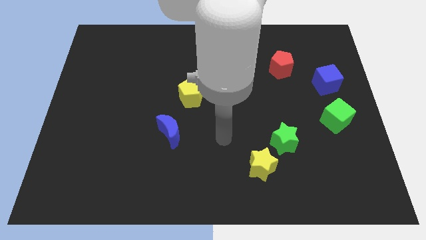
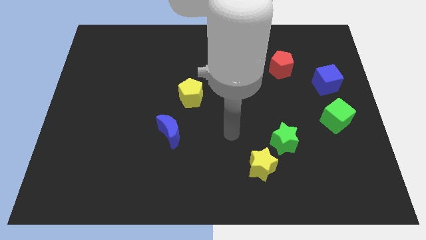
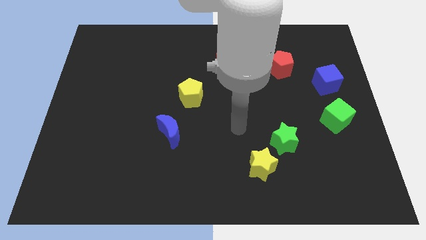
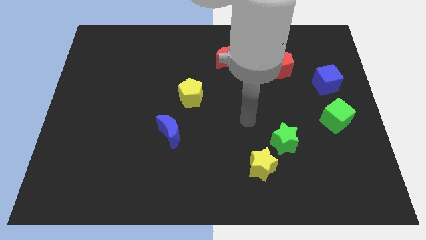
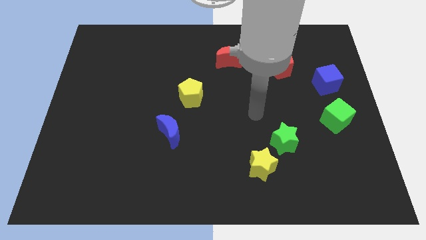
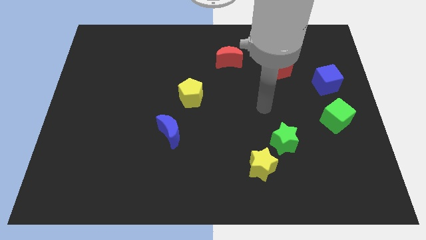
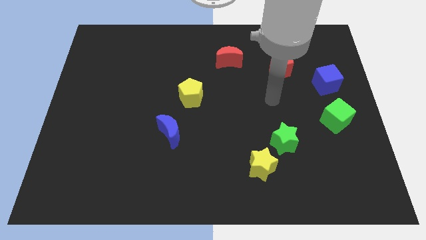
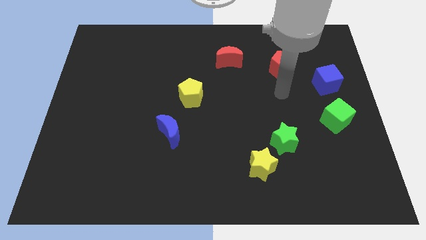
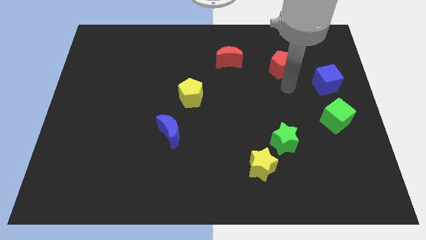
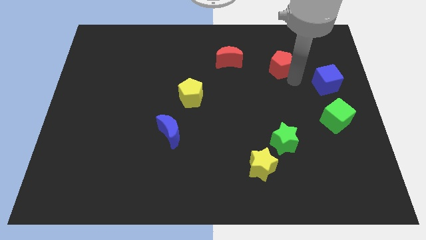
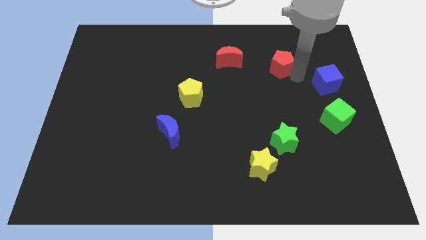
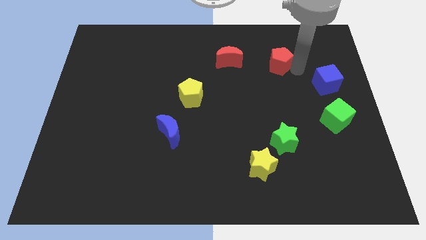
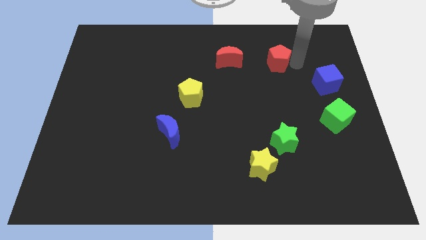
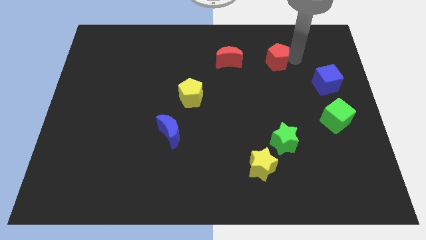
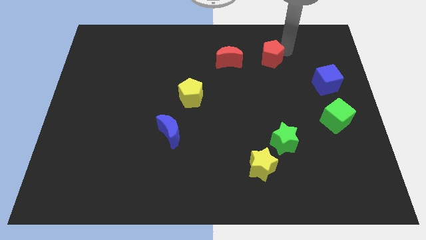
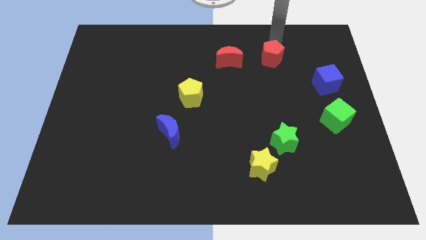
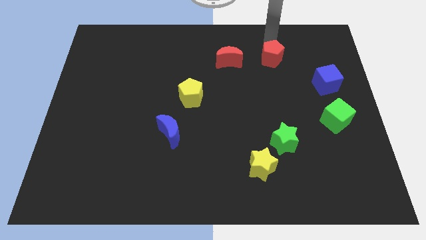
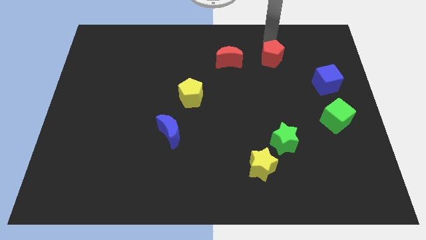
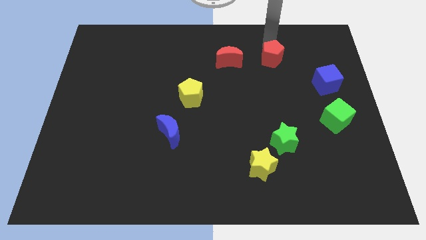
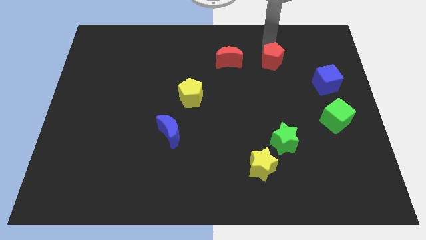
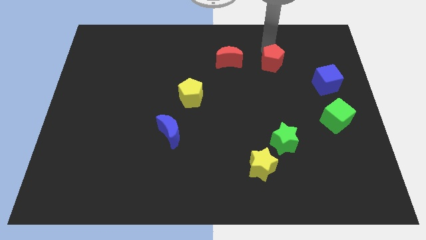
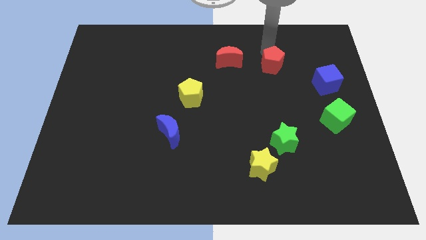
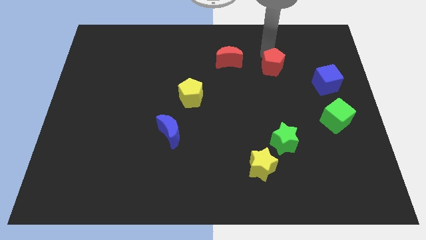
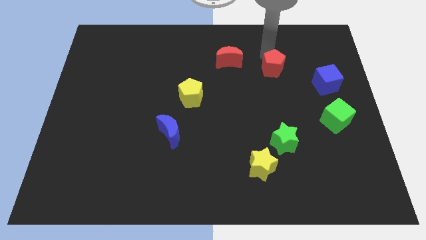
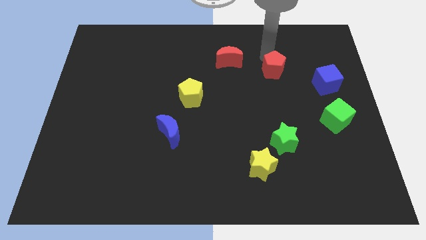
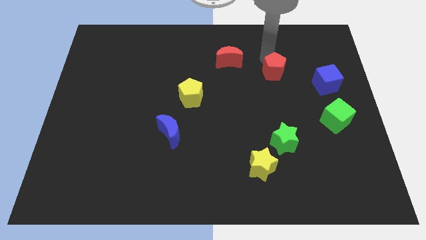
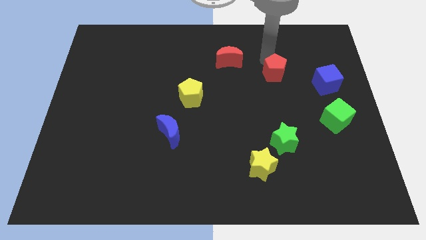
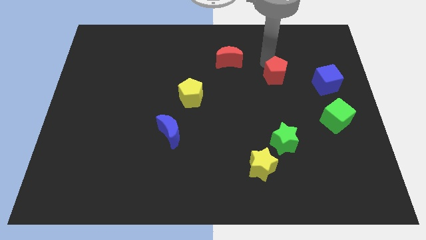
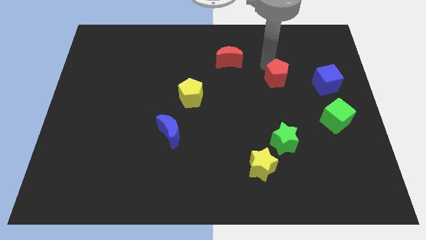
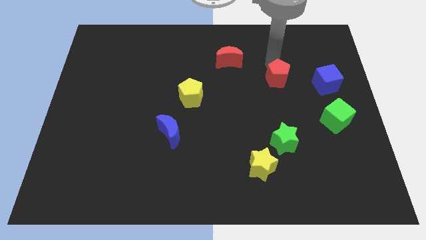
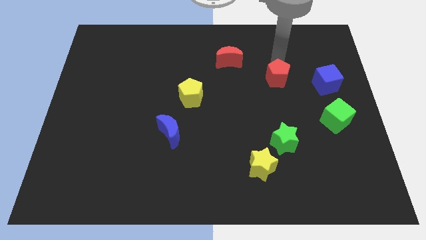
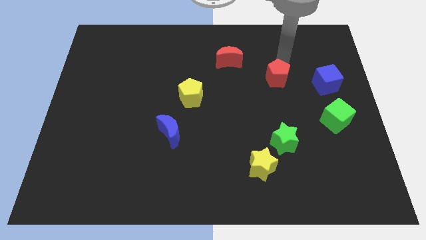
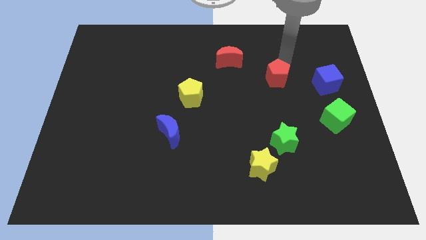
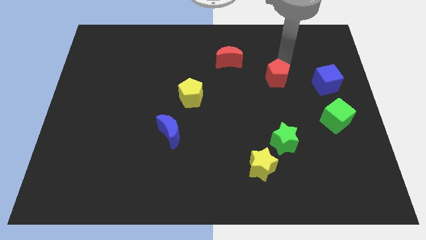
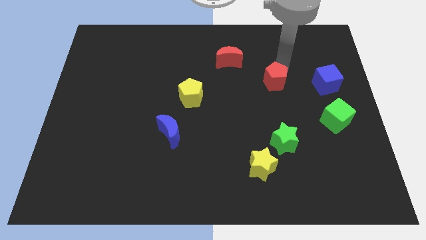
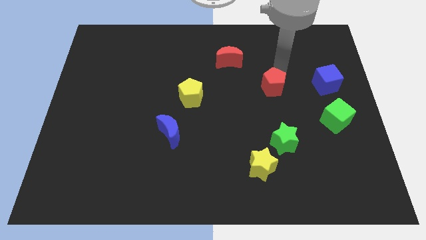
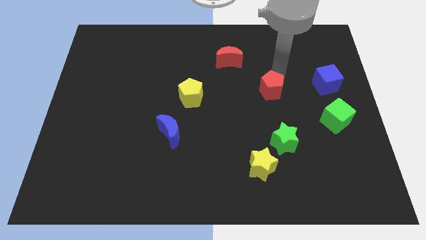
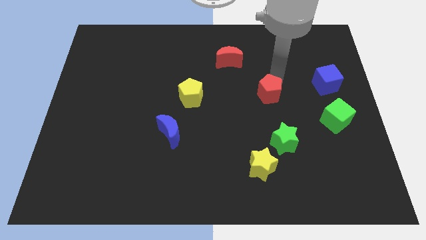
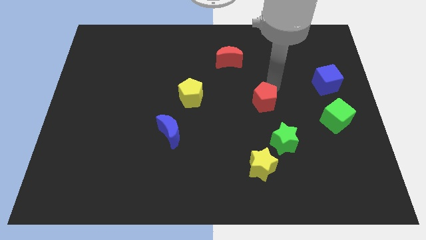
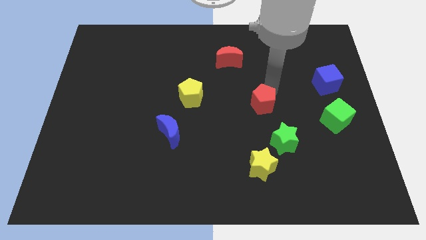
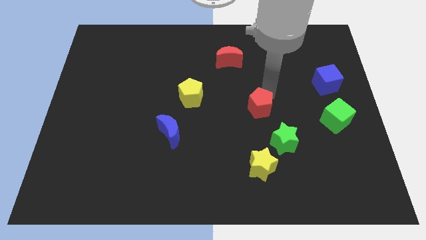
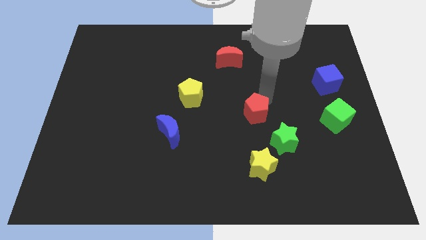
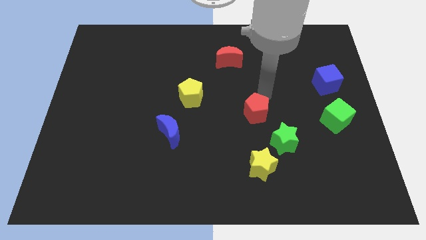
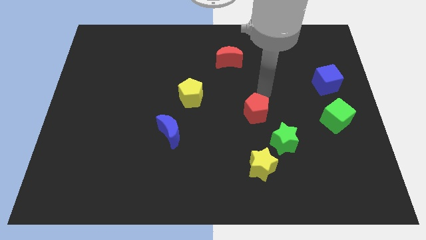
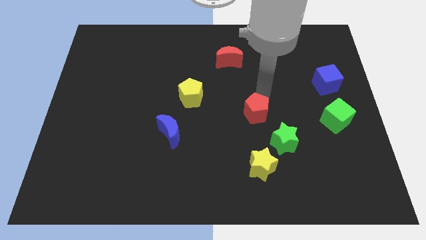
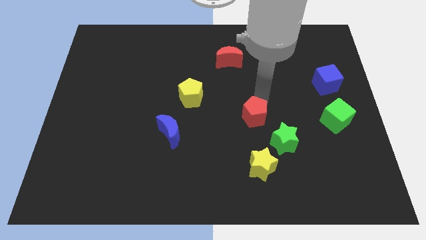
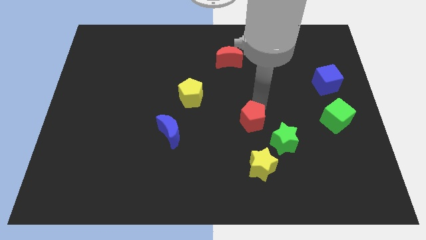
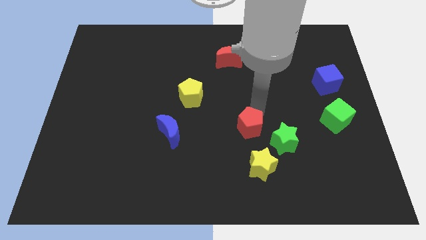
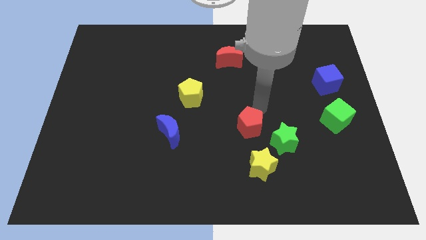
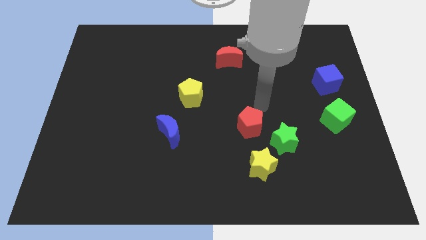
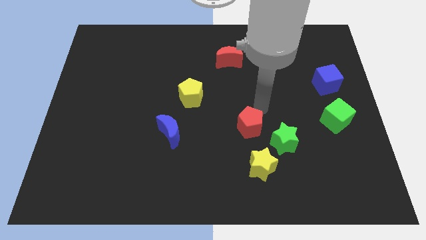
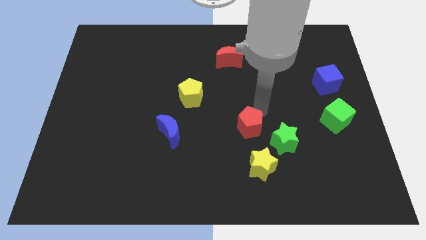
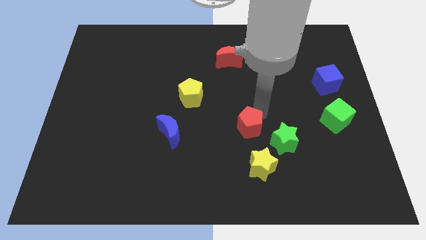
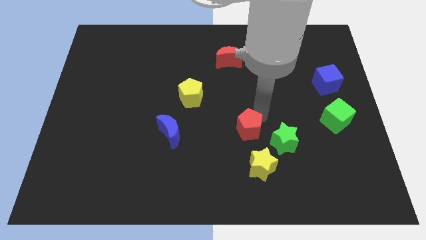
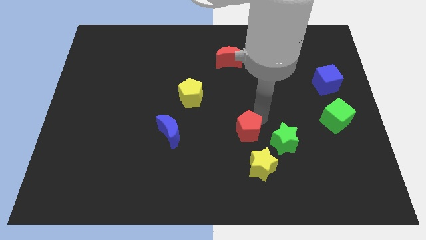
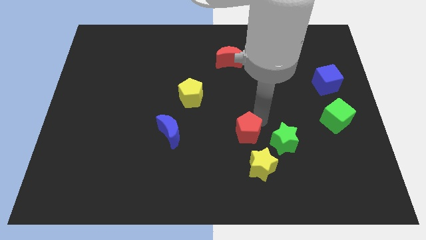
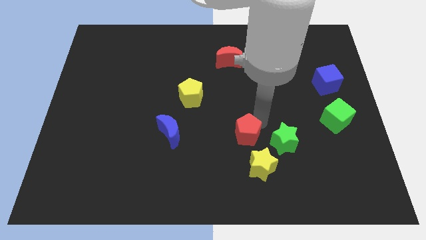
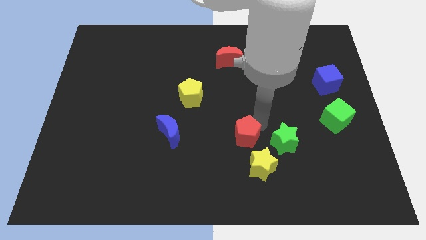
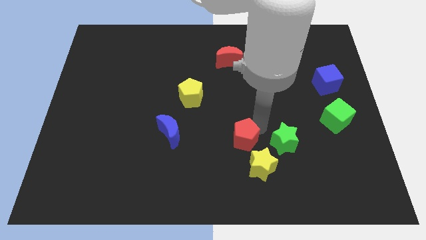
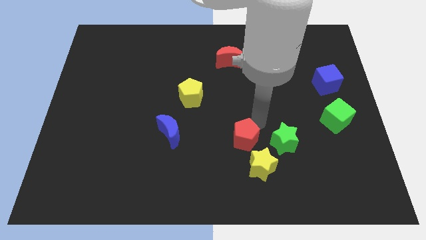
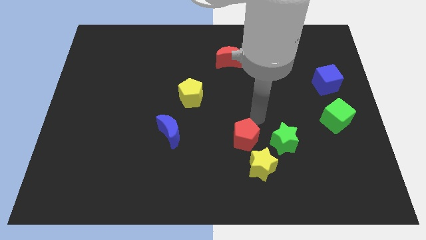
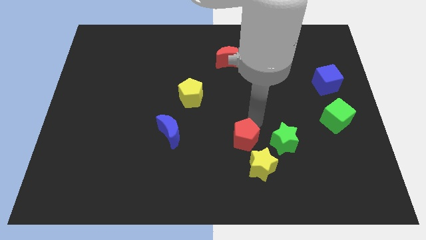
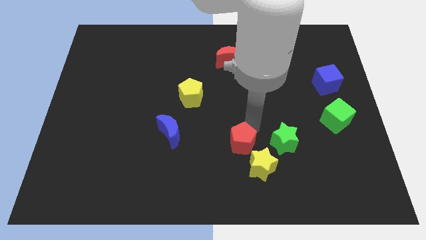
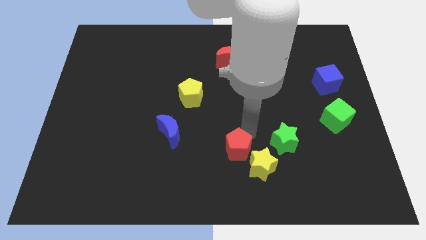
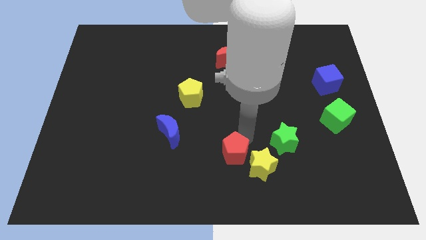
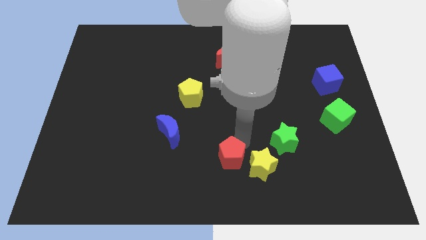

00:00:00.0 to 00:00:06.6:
move the red pentagon to the bottom side

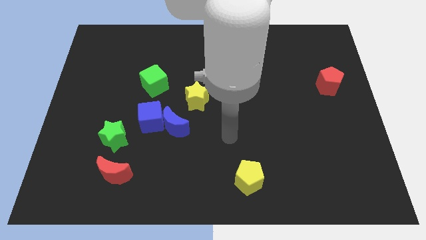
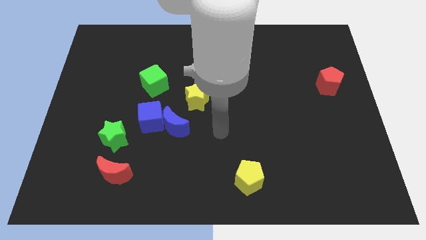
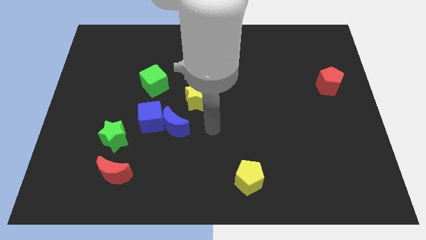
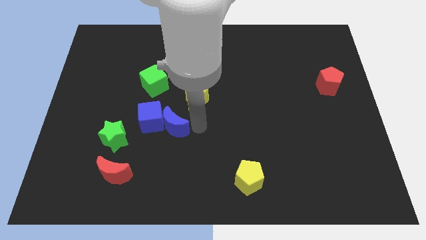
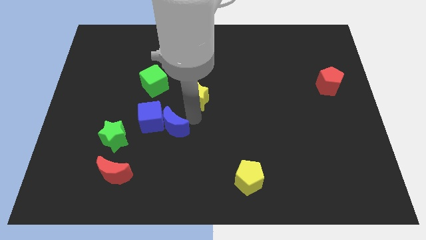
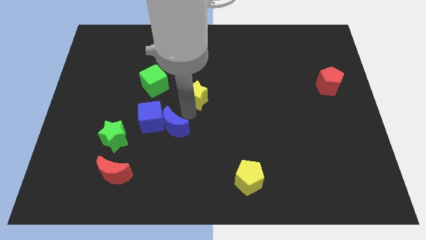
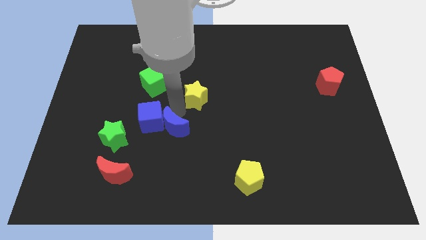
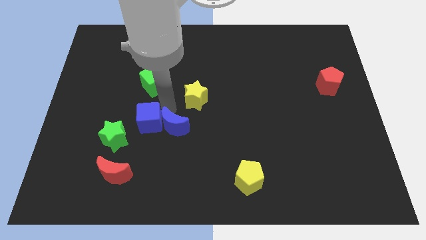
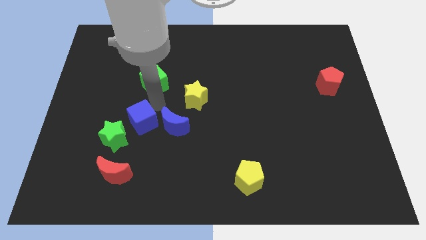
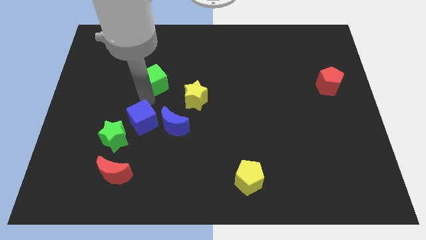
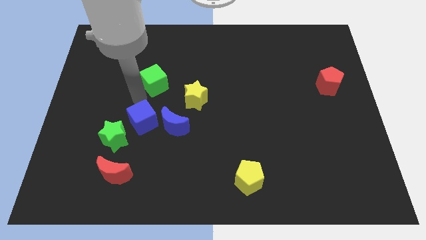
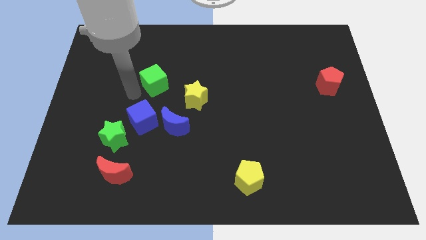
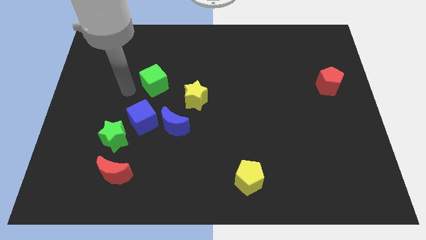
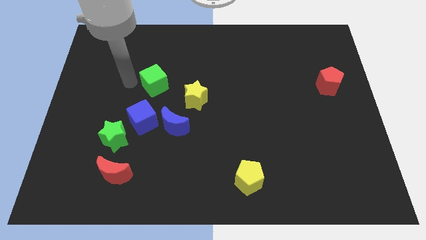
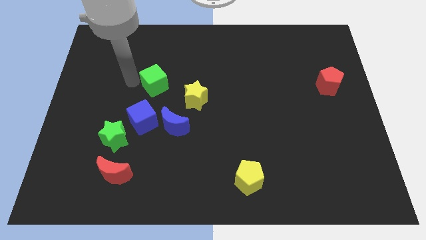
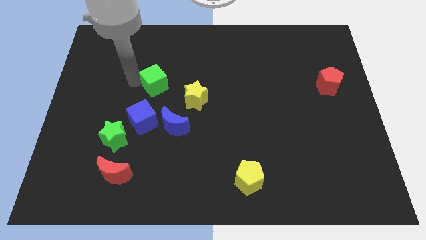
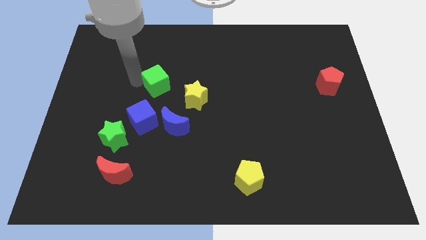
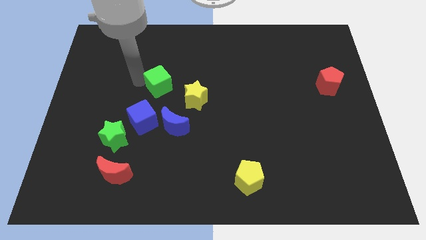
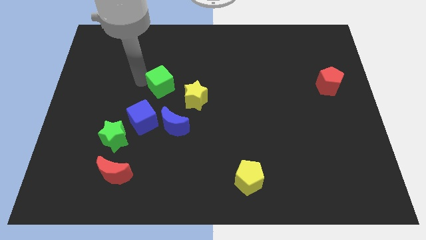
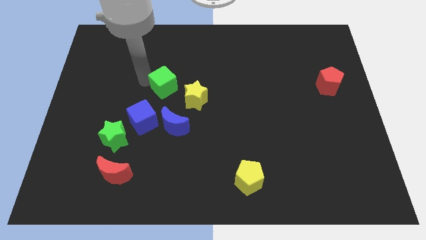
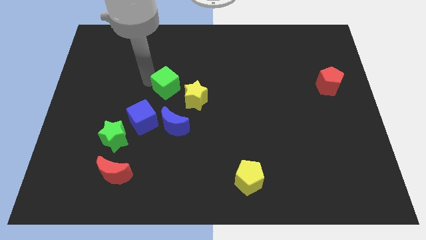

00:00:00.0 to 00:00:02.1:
put the green cube to the center of the board
